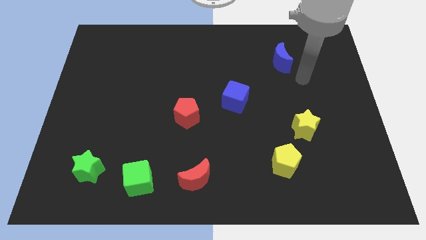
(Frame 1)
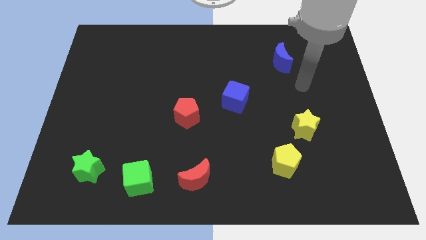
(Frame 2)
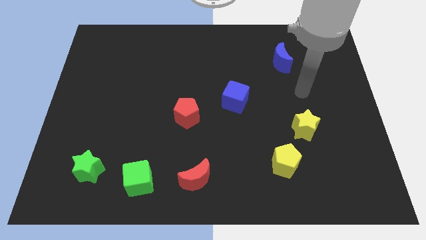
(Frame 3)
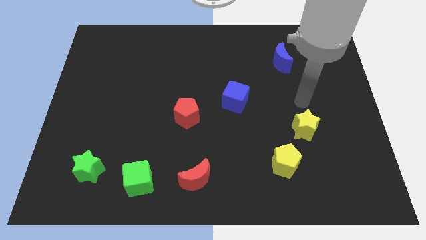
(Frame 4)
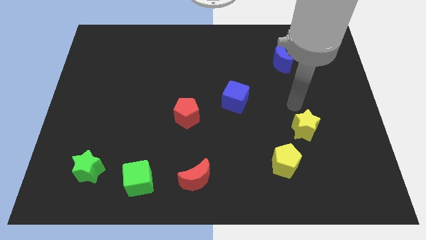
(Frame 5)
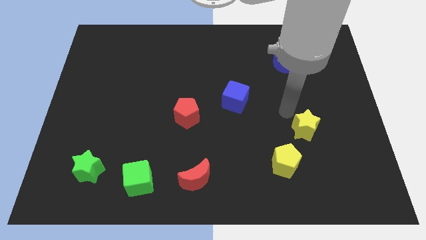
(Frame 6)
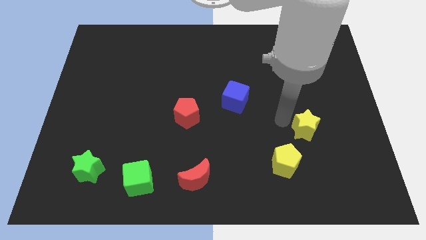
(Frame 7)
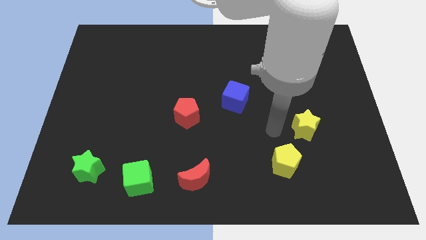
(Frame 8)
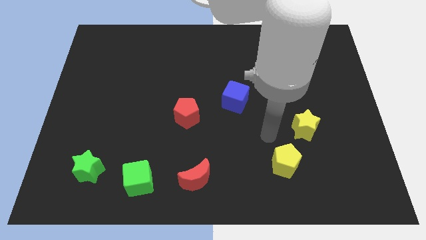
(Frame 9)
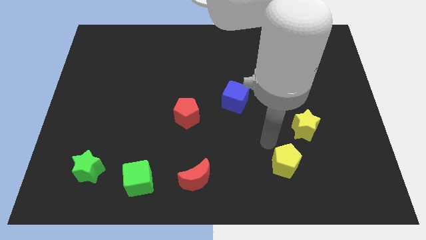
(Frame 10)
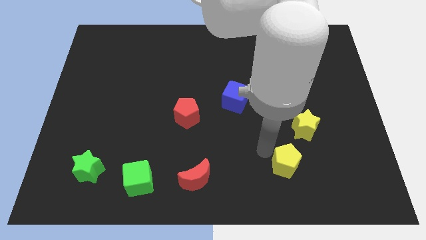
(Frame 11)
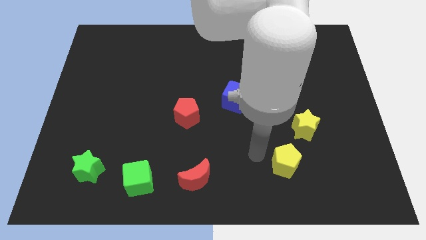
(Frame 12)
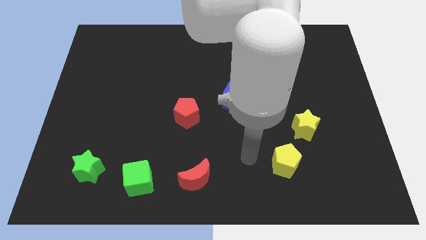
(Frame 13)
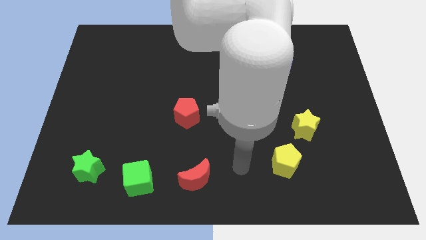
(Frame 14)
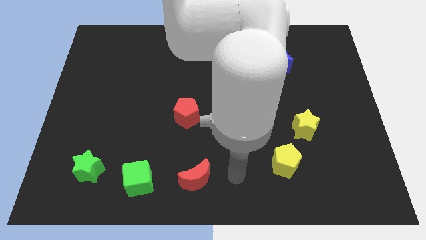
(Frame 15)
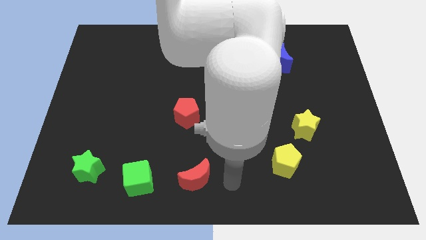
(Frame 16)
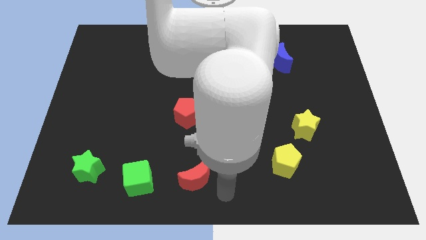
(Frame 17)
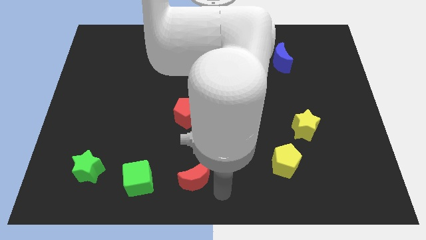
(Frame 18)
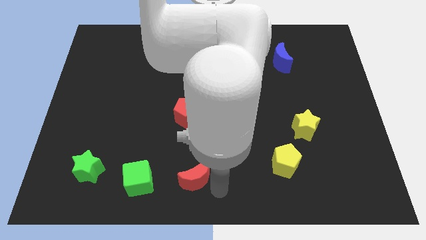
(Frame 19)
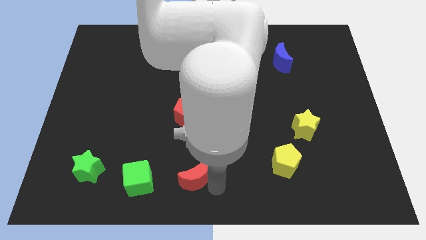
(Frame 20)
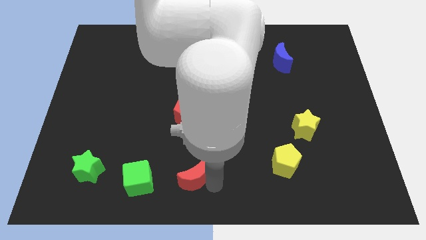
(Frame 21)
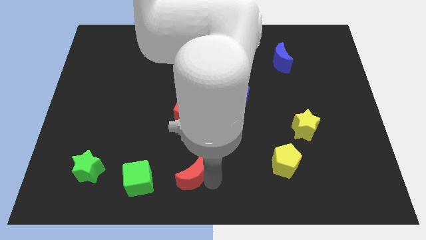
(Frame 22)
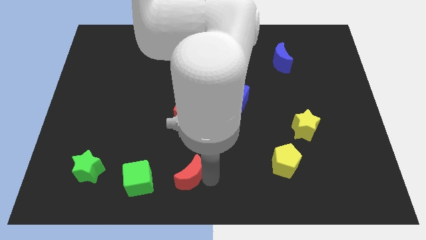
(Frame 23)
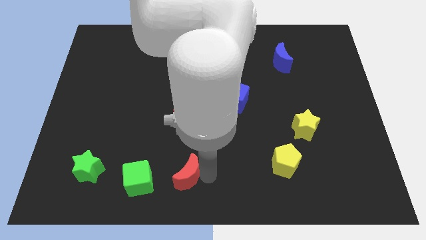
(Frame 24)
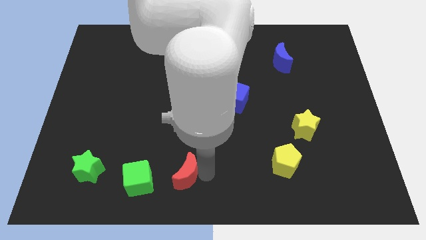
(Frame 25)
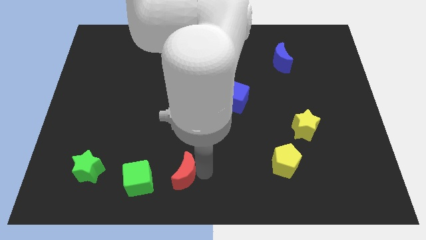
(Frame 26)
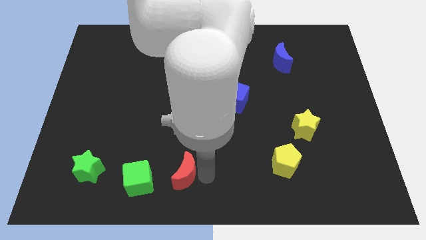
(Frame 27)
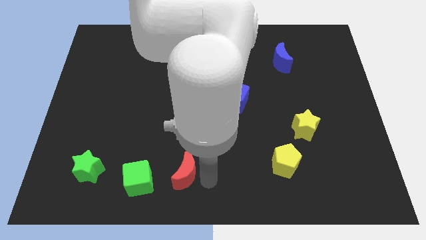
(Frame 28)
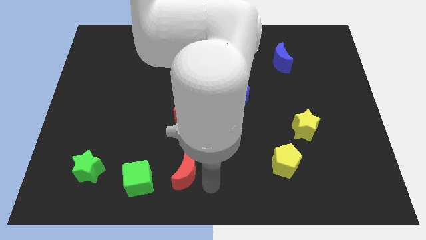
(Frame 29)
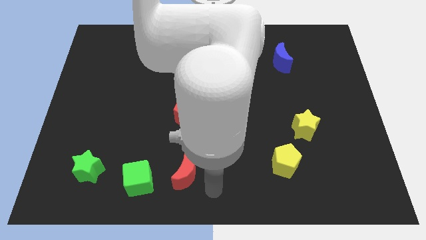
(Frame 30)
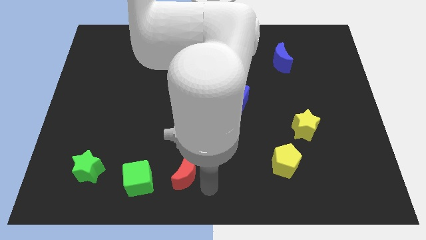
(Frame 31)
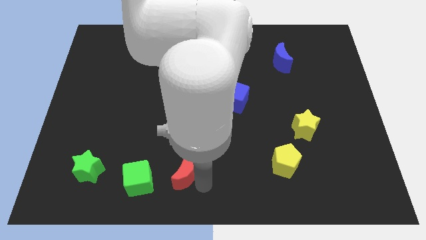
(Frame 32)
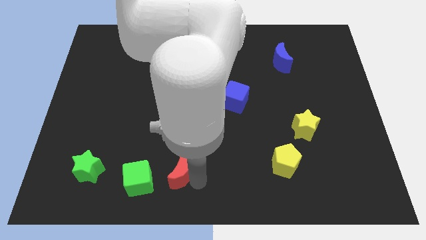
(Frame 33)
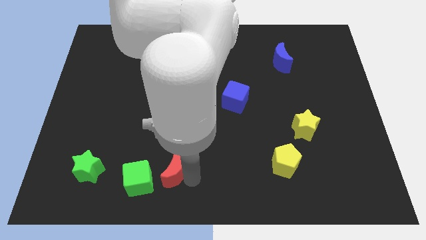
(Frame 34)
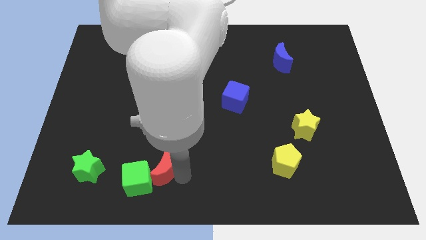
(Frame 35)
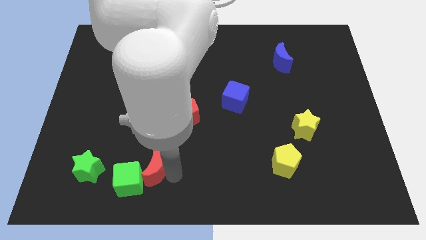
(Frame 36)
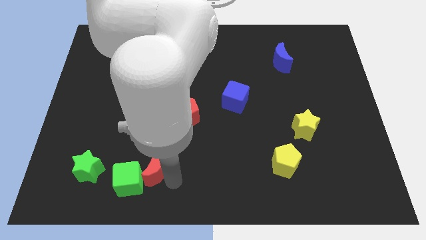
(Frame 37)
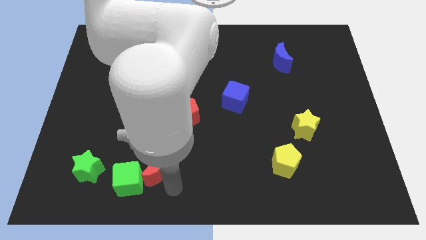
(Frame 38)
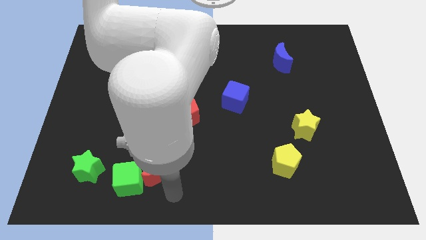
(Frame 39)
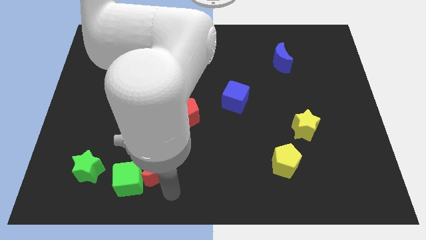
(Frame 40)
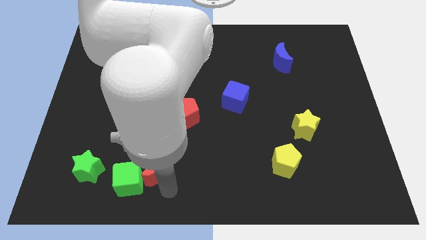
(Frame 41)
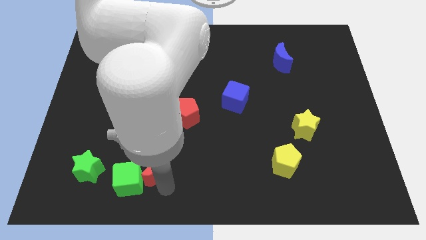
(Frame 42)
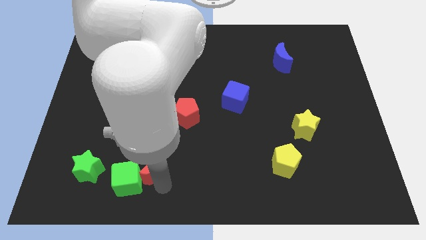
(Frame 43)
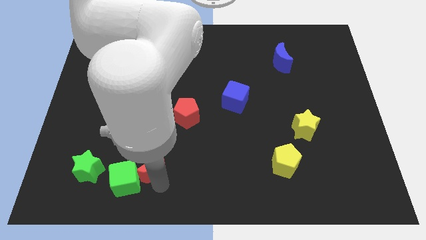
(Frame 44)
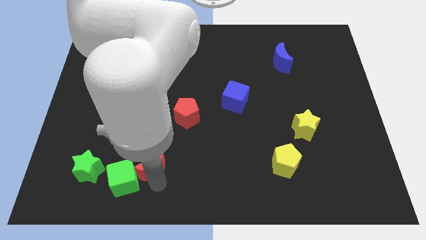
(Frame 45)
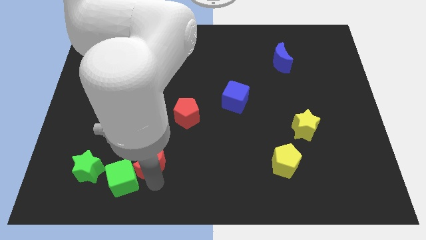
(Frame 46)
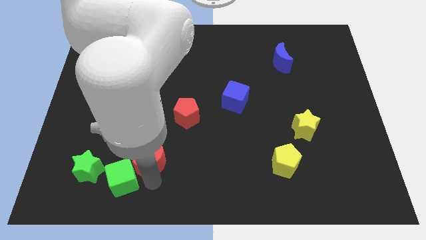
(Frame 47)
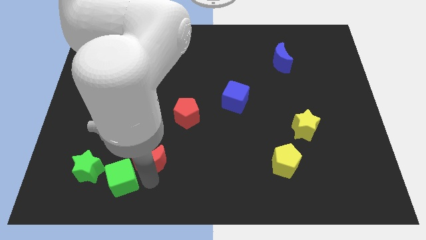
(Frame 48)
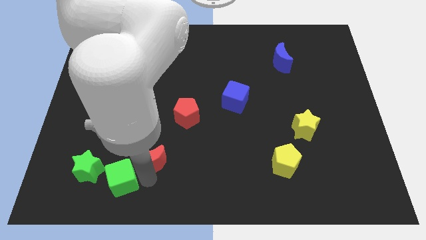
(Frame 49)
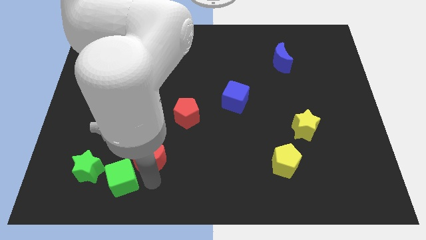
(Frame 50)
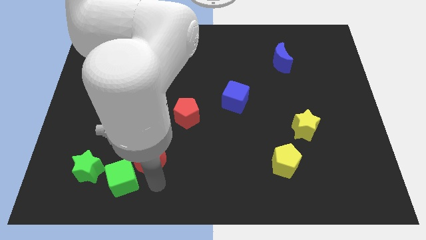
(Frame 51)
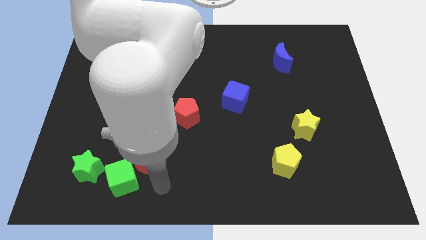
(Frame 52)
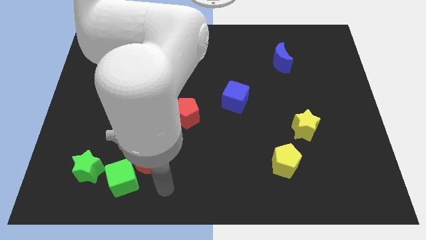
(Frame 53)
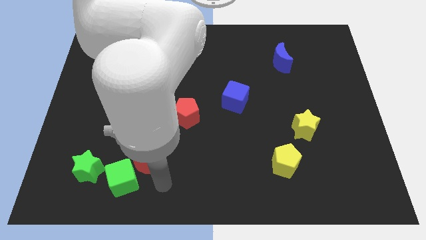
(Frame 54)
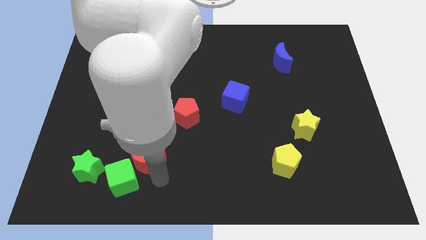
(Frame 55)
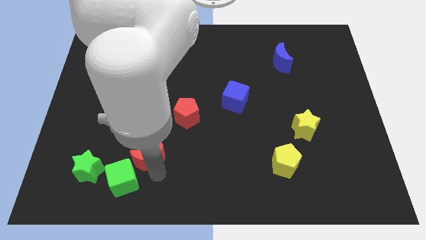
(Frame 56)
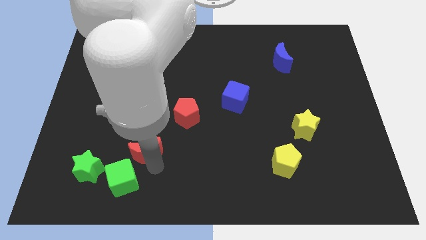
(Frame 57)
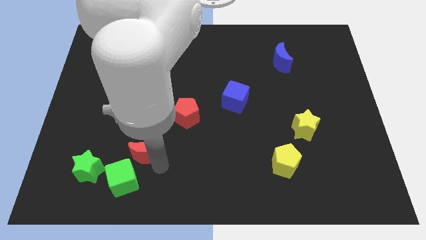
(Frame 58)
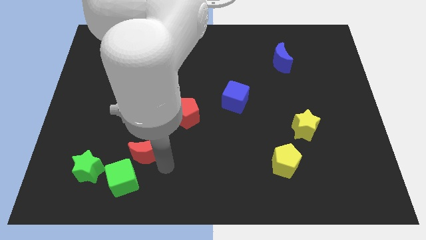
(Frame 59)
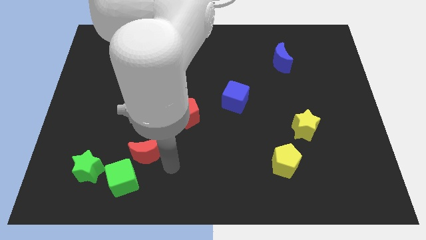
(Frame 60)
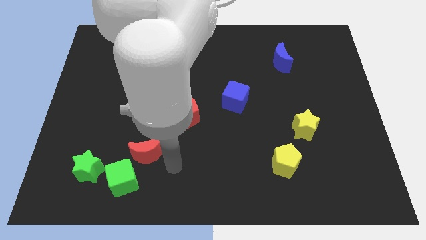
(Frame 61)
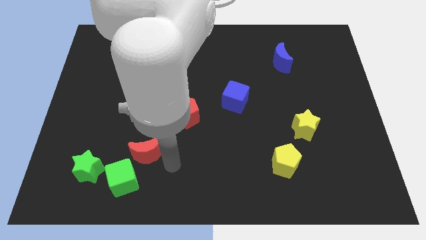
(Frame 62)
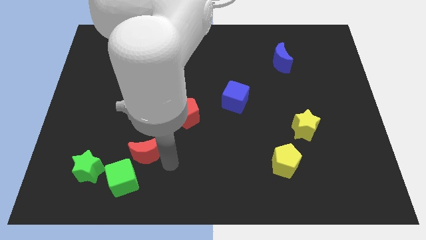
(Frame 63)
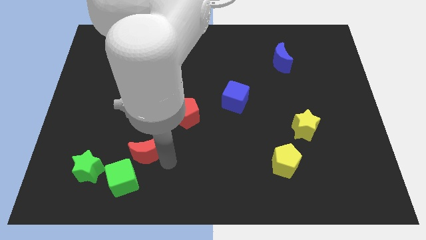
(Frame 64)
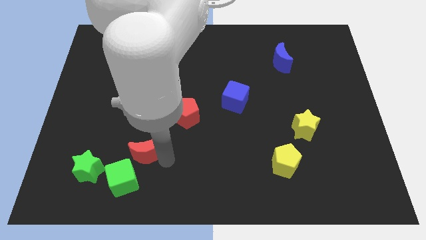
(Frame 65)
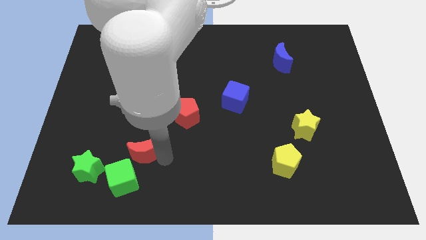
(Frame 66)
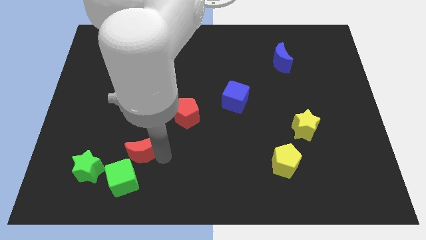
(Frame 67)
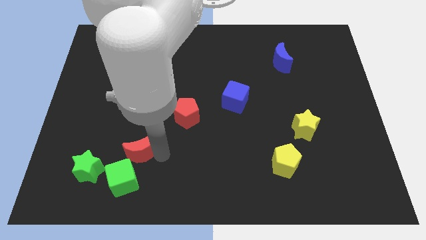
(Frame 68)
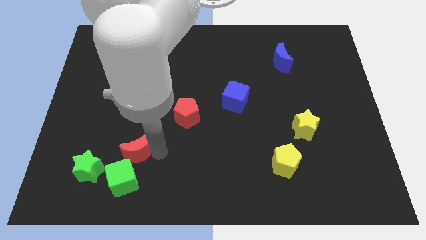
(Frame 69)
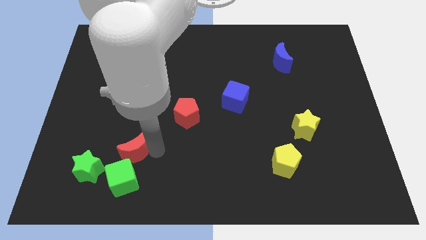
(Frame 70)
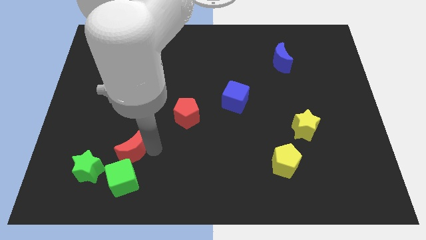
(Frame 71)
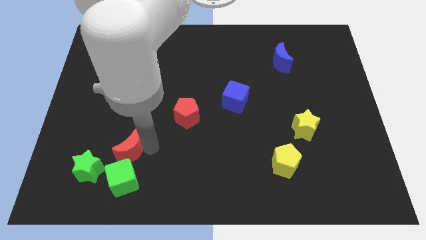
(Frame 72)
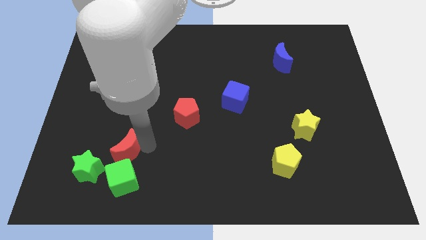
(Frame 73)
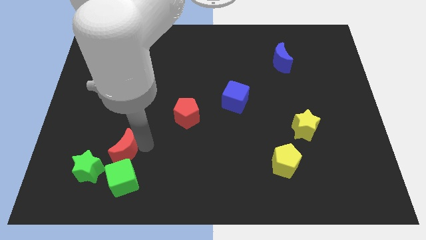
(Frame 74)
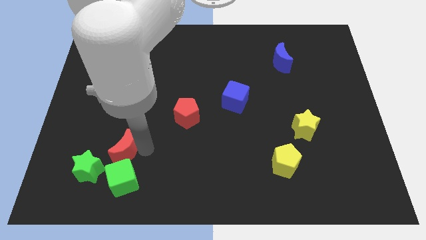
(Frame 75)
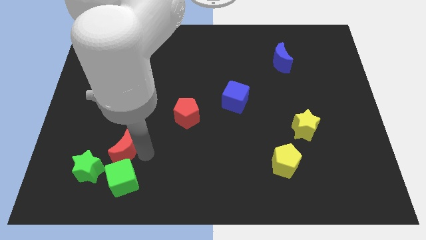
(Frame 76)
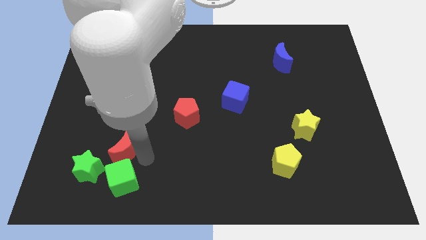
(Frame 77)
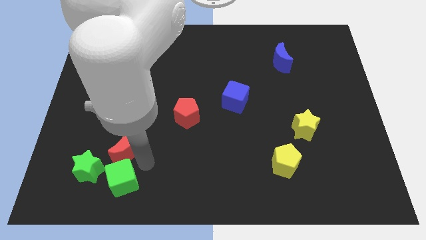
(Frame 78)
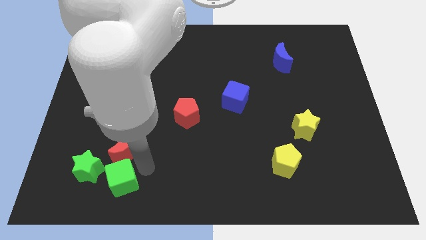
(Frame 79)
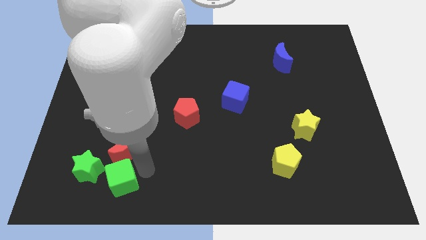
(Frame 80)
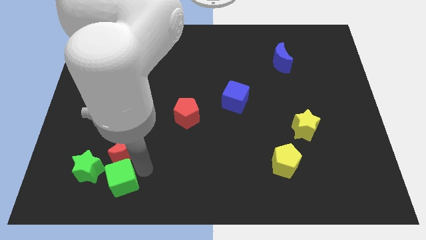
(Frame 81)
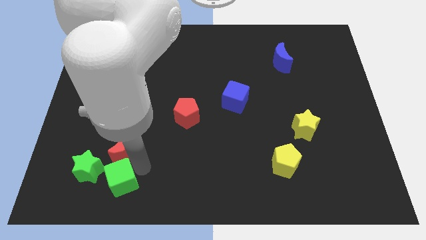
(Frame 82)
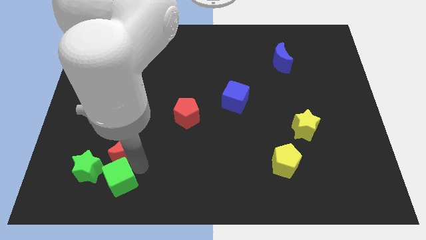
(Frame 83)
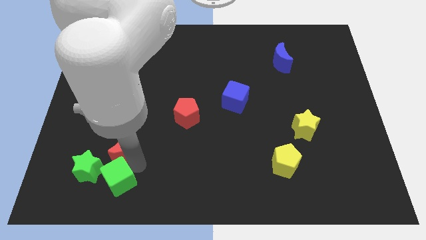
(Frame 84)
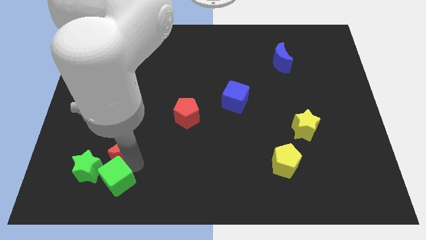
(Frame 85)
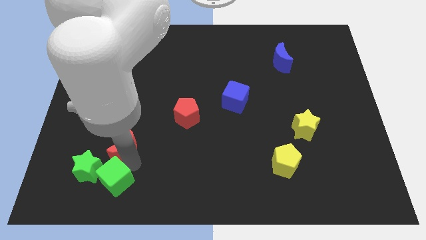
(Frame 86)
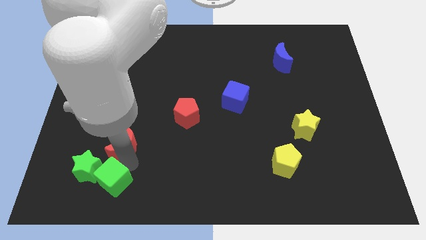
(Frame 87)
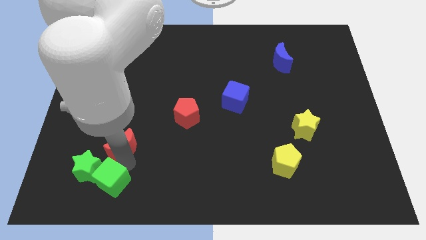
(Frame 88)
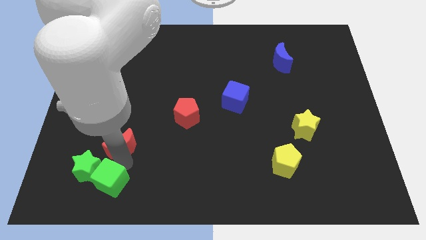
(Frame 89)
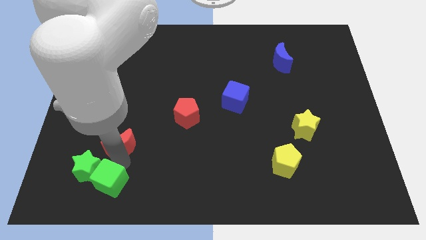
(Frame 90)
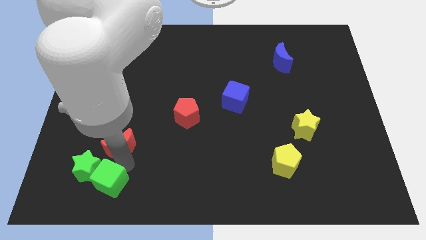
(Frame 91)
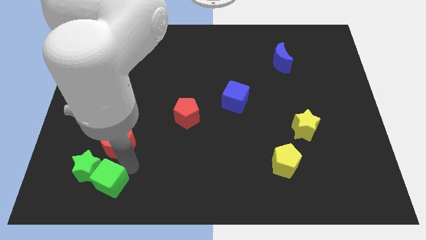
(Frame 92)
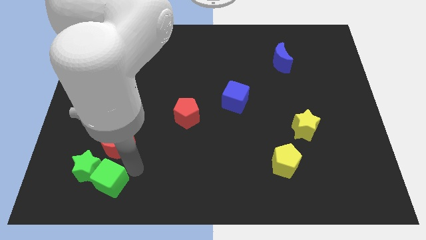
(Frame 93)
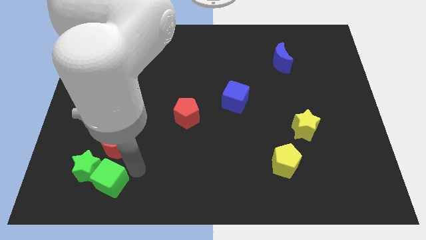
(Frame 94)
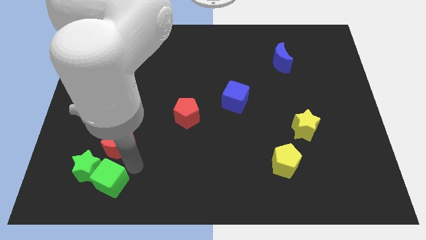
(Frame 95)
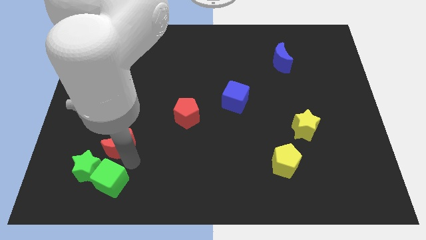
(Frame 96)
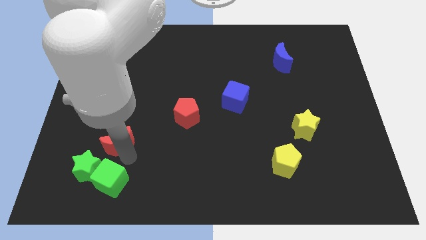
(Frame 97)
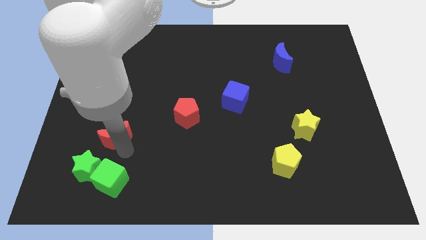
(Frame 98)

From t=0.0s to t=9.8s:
push the red moon above the green star
